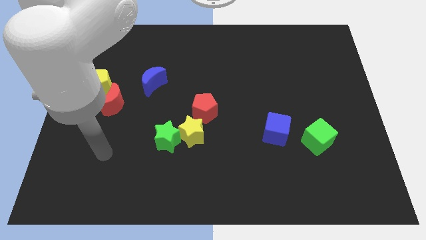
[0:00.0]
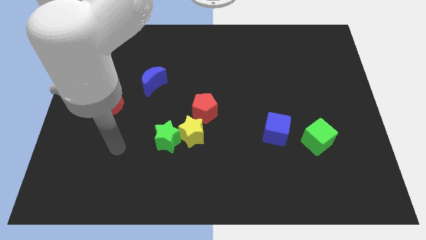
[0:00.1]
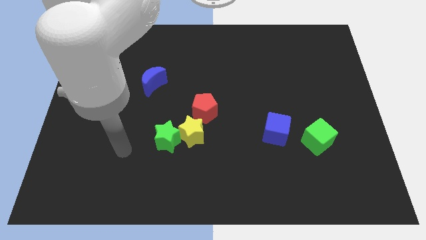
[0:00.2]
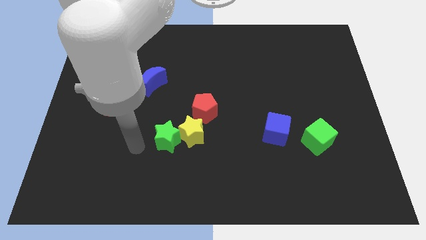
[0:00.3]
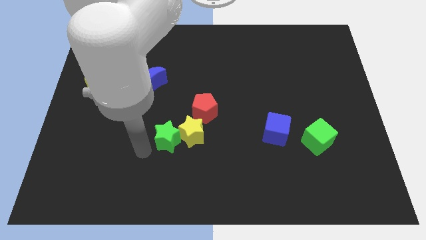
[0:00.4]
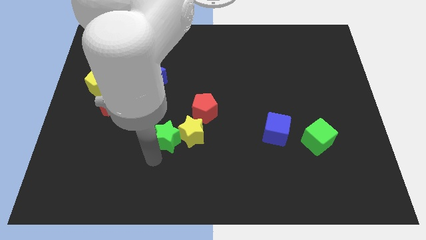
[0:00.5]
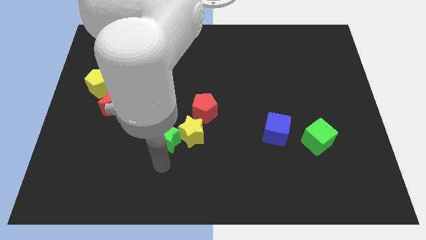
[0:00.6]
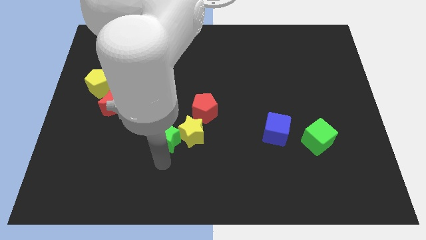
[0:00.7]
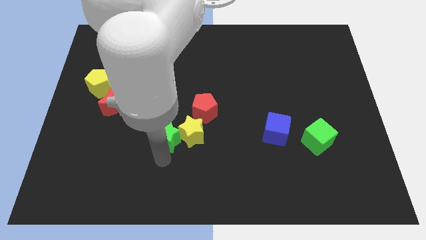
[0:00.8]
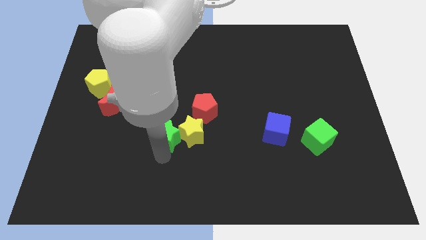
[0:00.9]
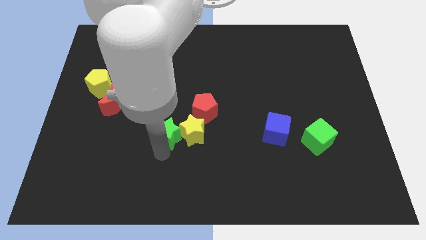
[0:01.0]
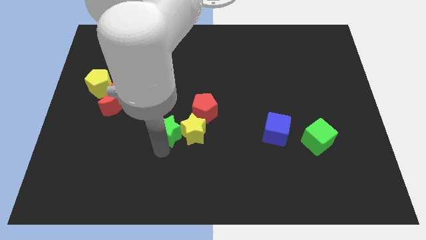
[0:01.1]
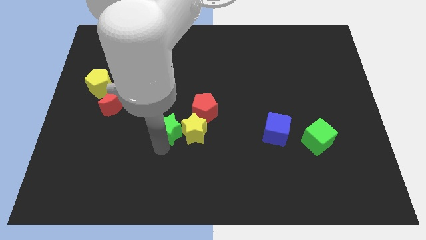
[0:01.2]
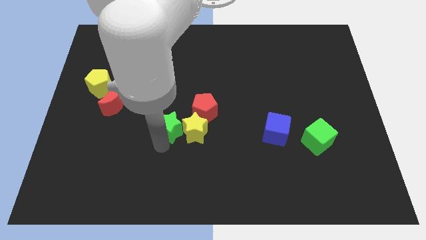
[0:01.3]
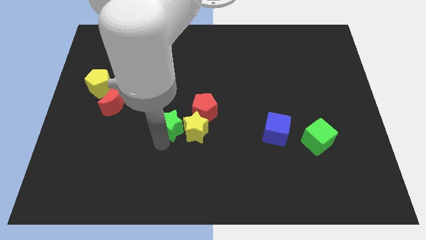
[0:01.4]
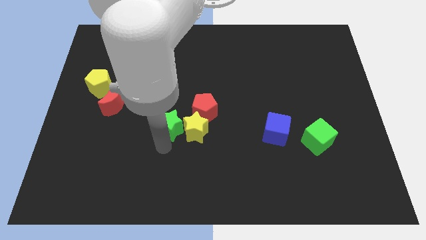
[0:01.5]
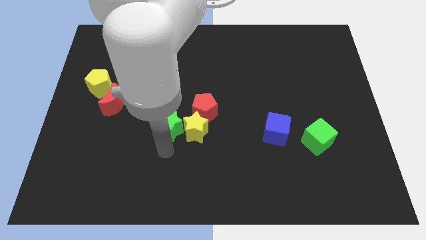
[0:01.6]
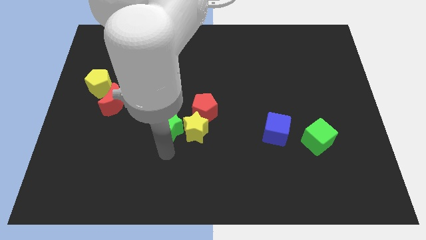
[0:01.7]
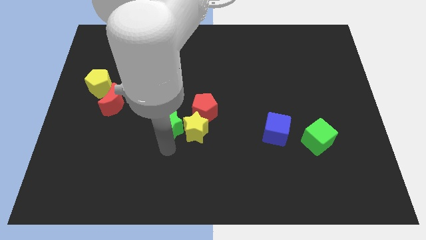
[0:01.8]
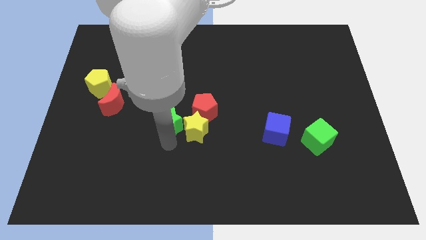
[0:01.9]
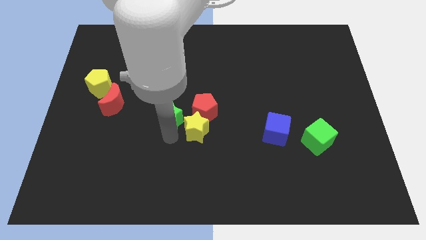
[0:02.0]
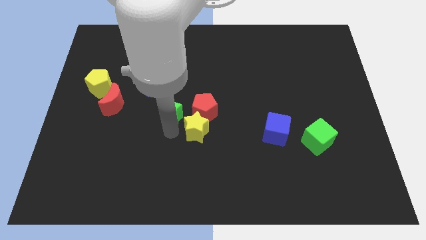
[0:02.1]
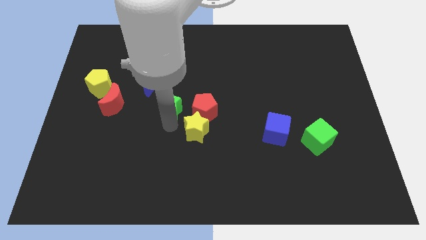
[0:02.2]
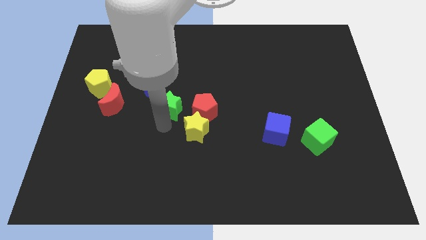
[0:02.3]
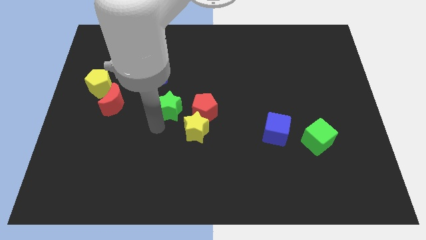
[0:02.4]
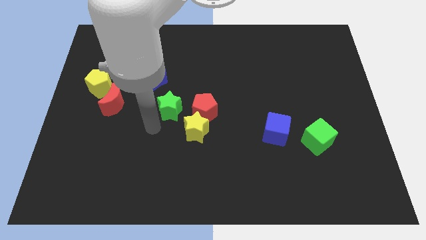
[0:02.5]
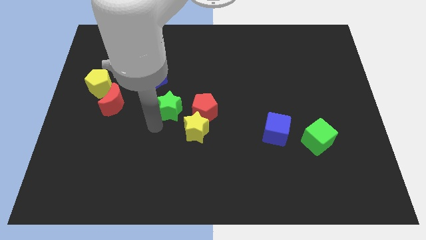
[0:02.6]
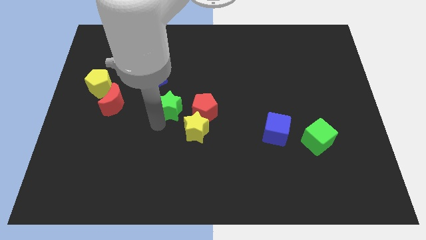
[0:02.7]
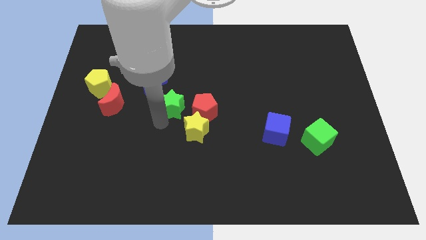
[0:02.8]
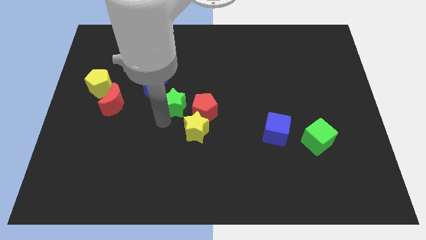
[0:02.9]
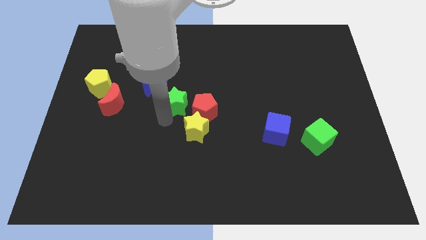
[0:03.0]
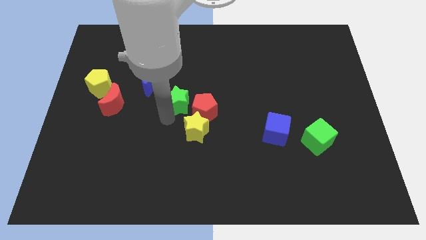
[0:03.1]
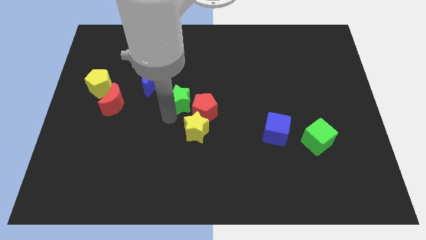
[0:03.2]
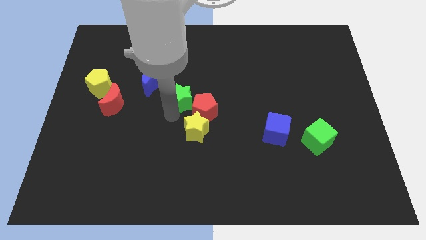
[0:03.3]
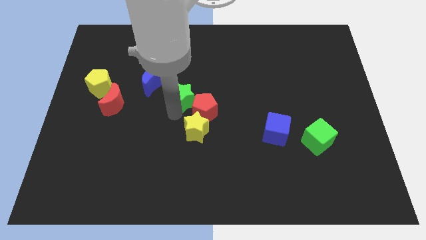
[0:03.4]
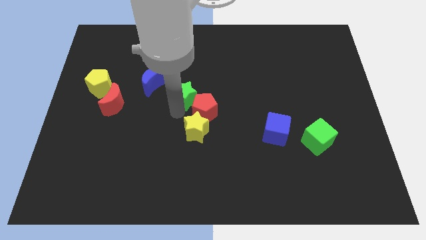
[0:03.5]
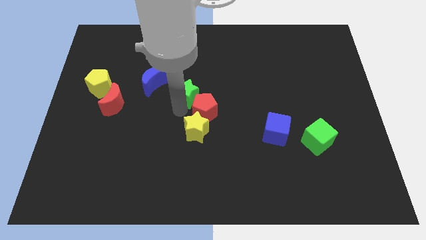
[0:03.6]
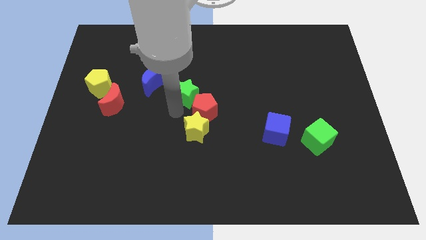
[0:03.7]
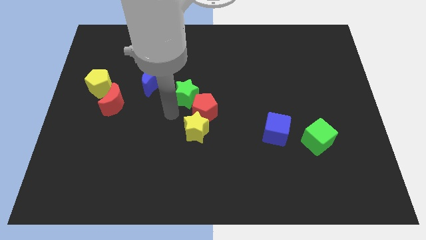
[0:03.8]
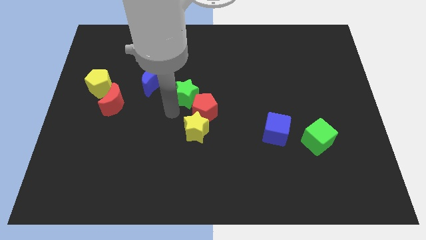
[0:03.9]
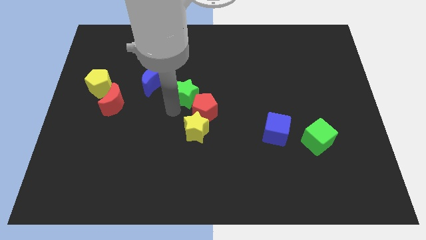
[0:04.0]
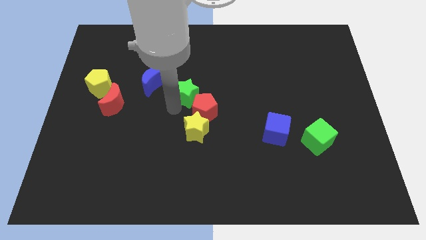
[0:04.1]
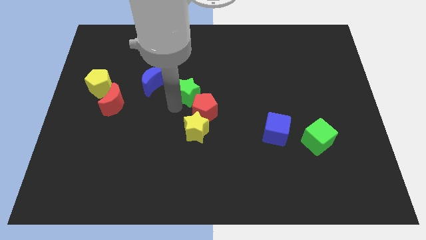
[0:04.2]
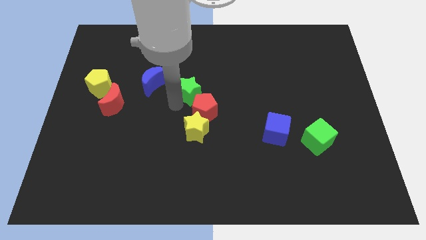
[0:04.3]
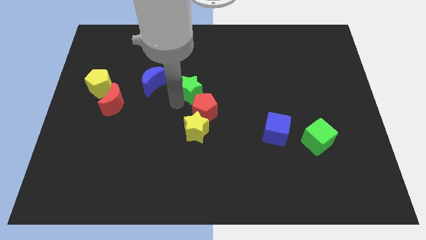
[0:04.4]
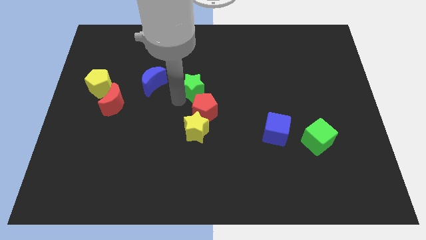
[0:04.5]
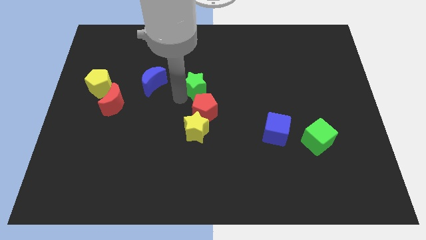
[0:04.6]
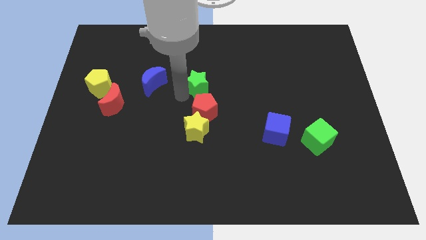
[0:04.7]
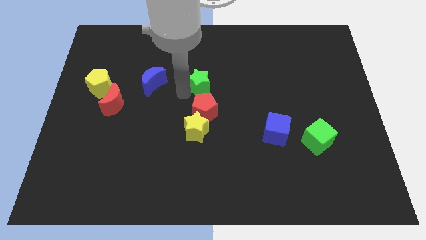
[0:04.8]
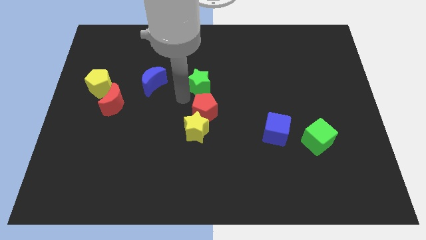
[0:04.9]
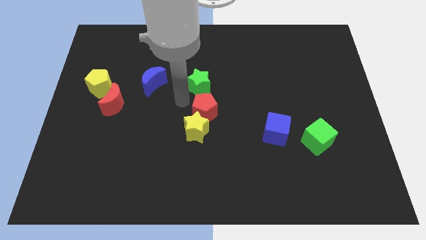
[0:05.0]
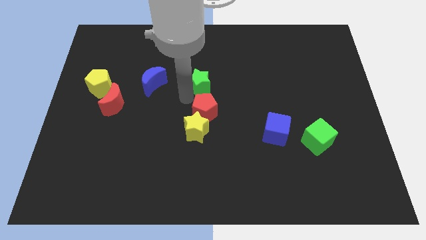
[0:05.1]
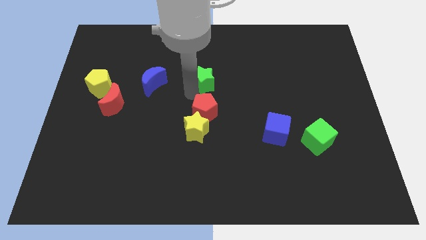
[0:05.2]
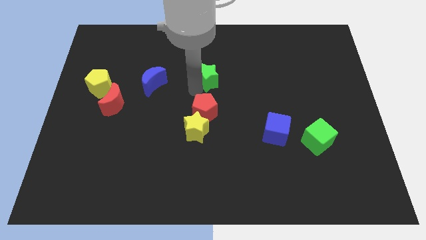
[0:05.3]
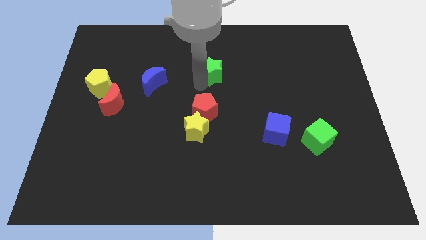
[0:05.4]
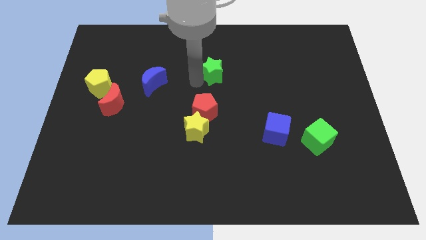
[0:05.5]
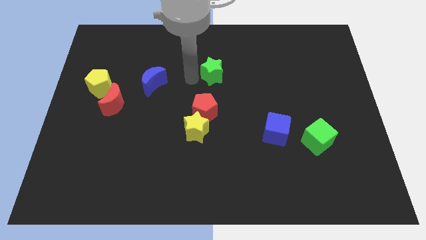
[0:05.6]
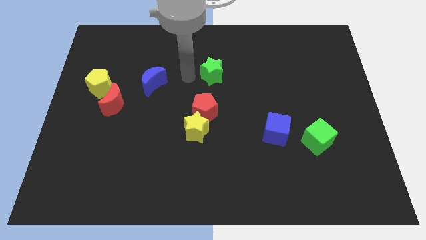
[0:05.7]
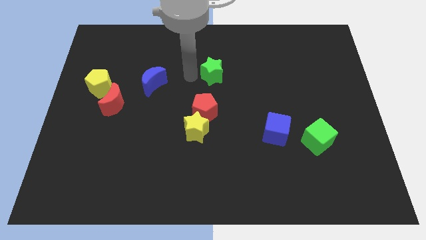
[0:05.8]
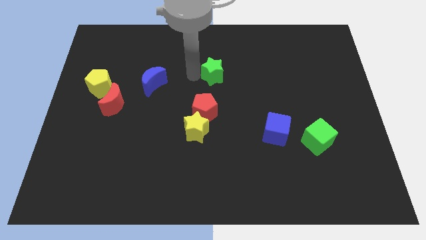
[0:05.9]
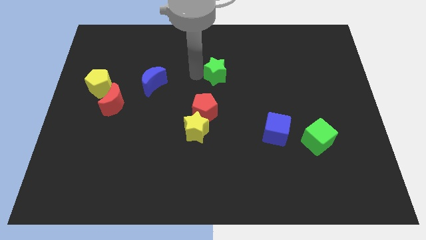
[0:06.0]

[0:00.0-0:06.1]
slide the green star up and right

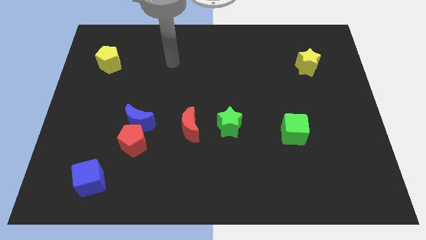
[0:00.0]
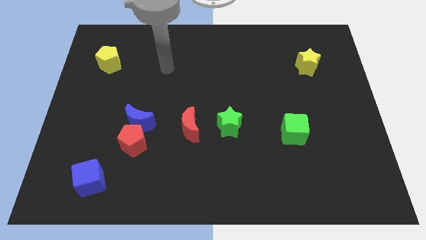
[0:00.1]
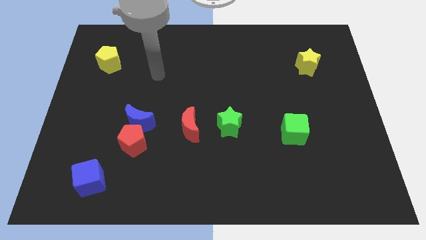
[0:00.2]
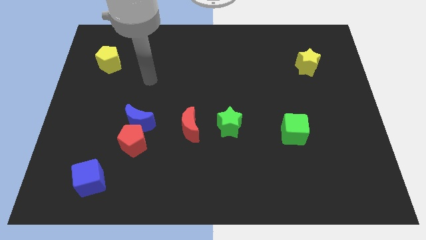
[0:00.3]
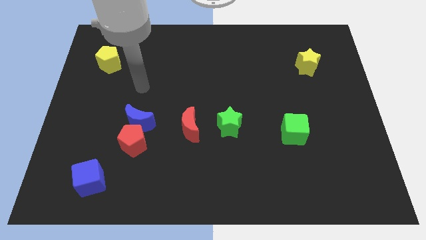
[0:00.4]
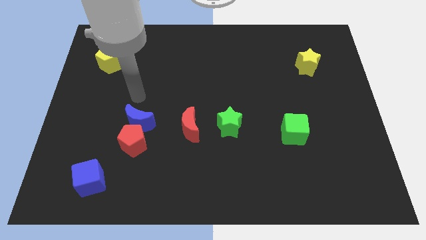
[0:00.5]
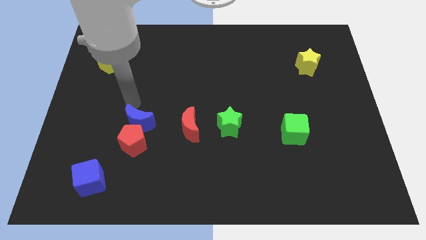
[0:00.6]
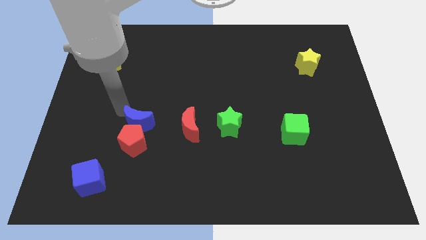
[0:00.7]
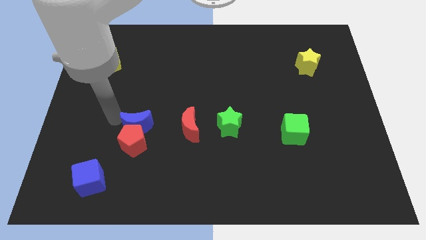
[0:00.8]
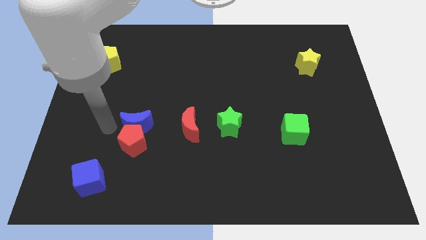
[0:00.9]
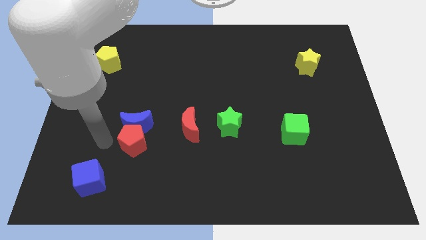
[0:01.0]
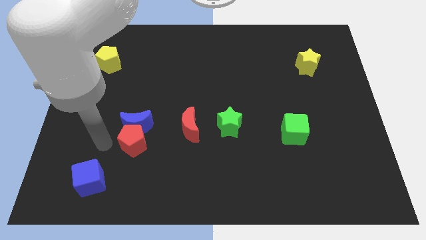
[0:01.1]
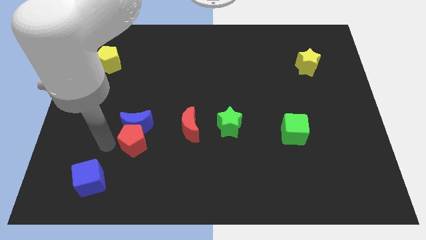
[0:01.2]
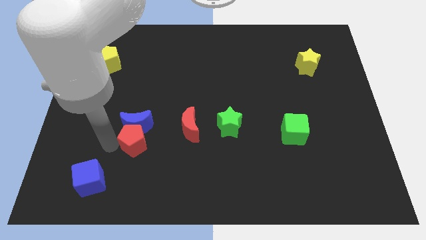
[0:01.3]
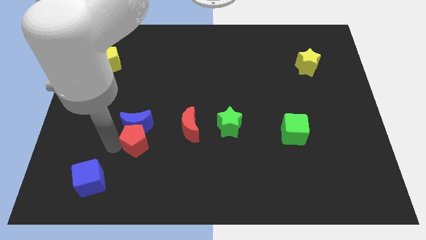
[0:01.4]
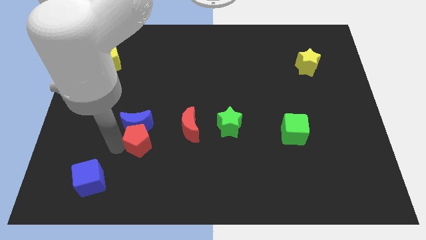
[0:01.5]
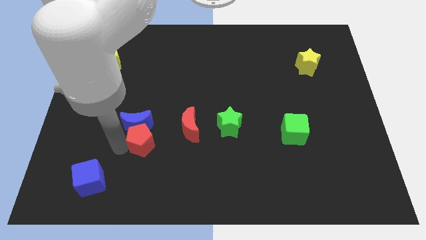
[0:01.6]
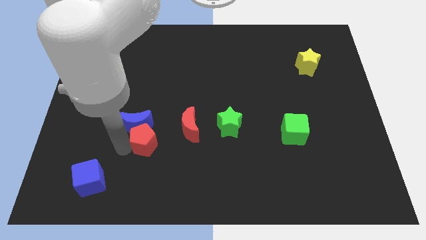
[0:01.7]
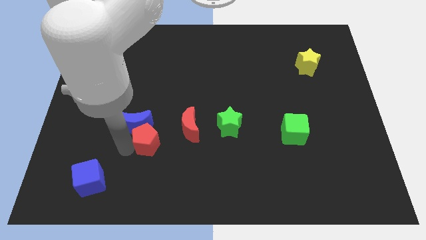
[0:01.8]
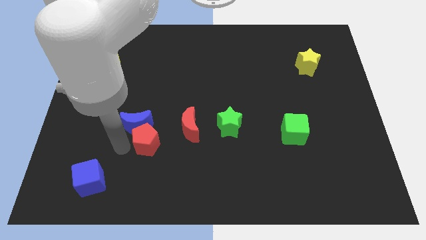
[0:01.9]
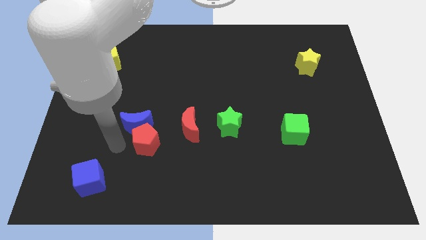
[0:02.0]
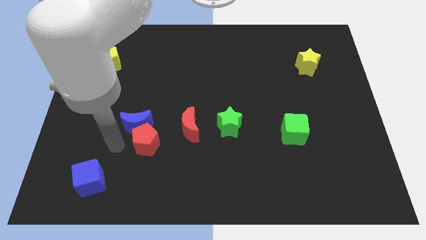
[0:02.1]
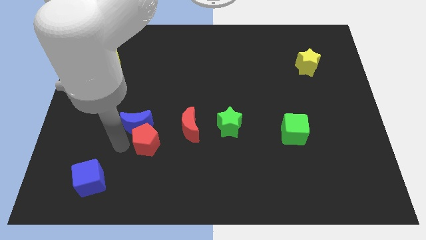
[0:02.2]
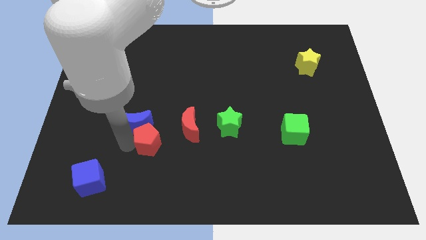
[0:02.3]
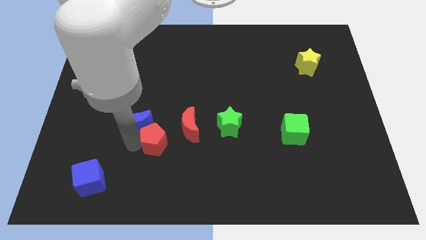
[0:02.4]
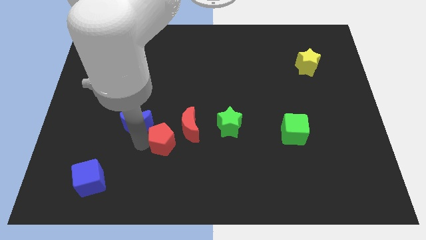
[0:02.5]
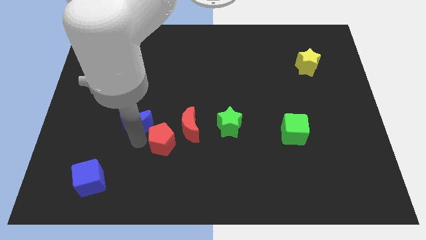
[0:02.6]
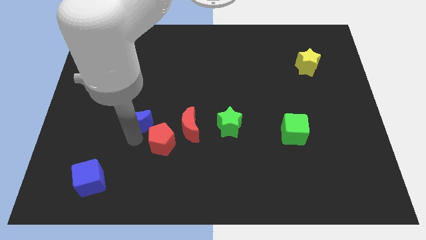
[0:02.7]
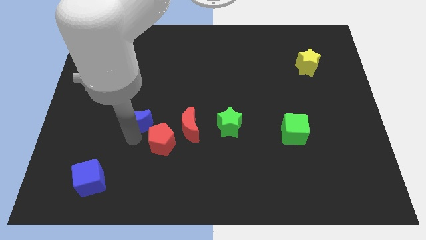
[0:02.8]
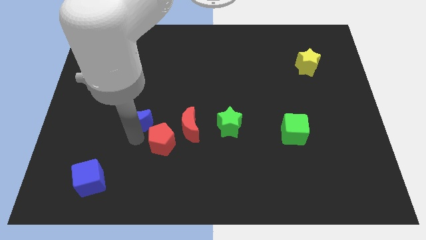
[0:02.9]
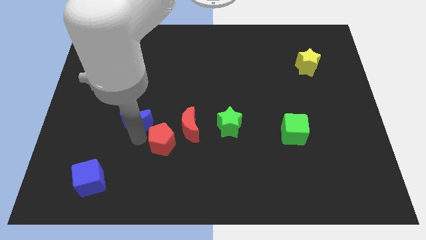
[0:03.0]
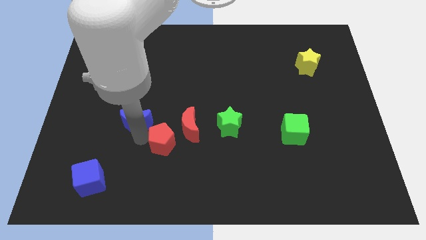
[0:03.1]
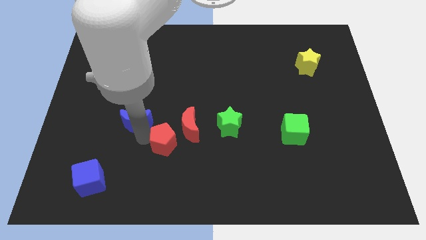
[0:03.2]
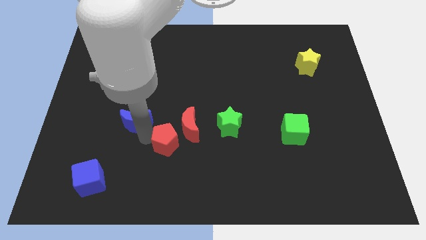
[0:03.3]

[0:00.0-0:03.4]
push the red pentagon to the right a bit
